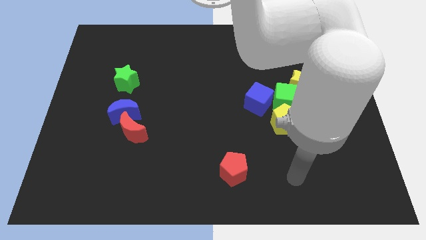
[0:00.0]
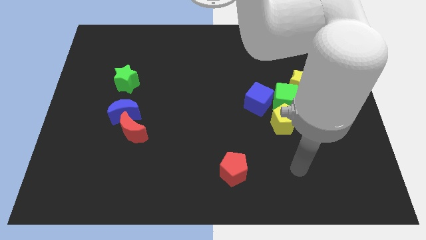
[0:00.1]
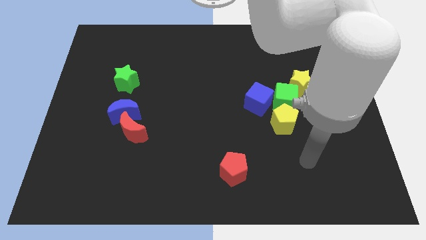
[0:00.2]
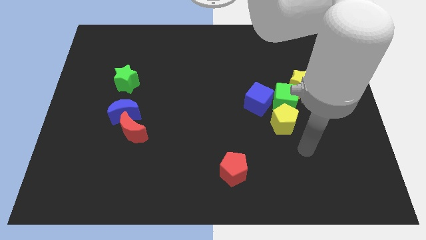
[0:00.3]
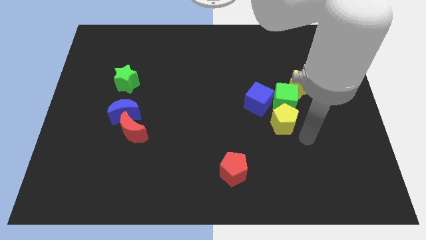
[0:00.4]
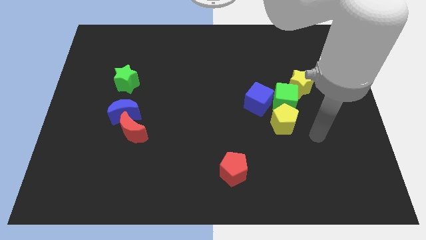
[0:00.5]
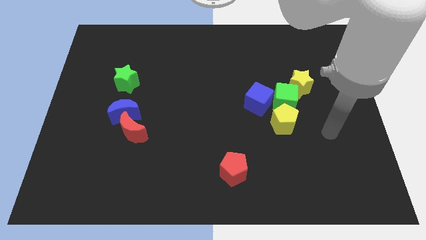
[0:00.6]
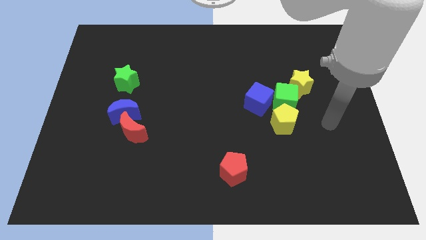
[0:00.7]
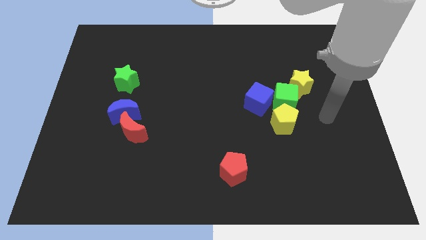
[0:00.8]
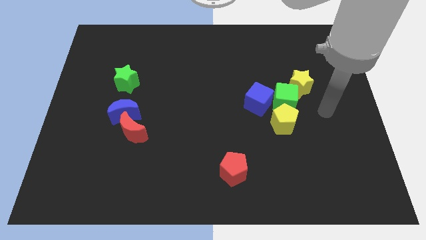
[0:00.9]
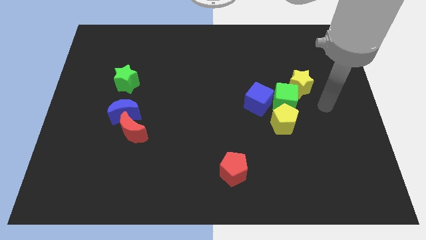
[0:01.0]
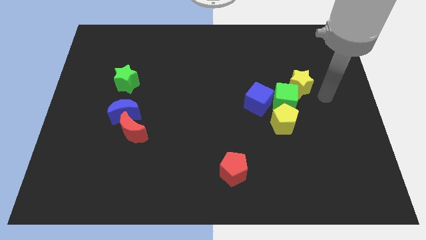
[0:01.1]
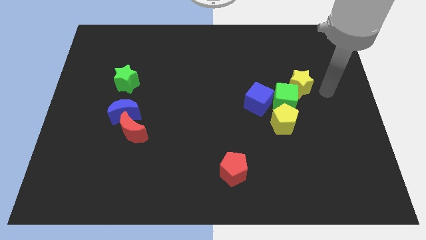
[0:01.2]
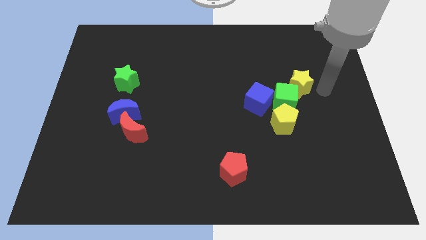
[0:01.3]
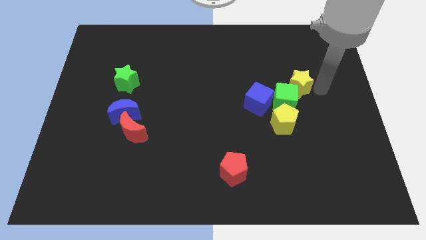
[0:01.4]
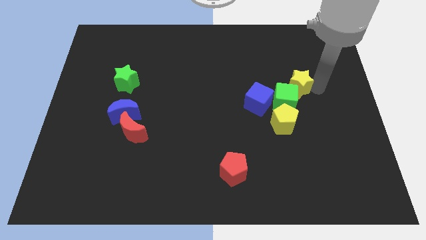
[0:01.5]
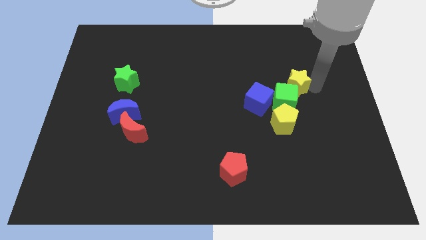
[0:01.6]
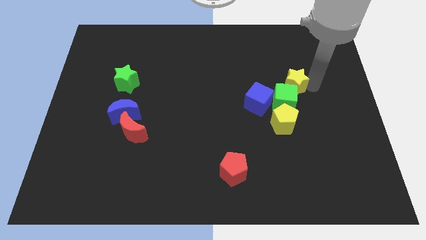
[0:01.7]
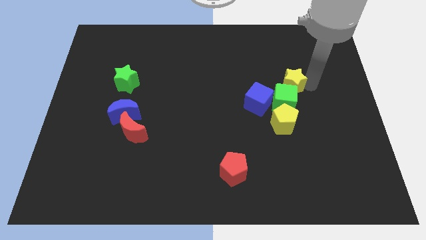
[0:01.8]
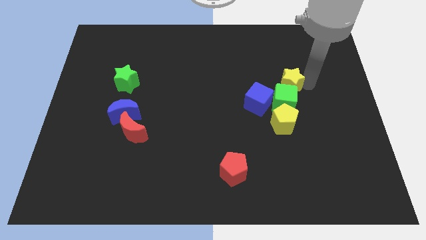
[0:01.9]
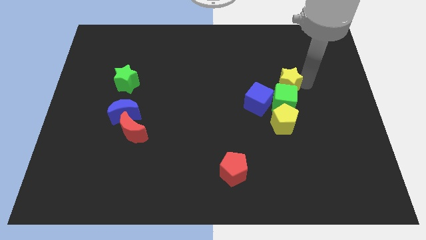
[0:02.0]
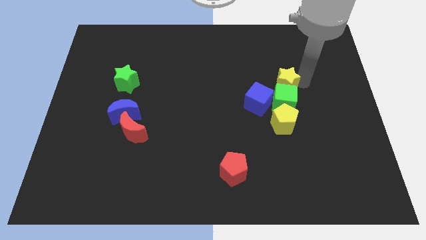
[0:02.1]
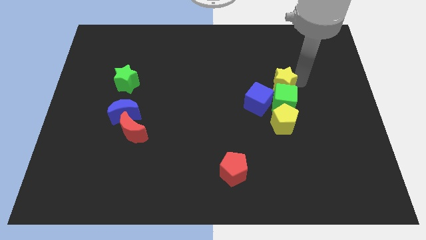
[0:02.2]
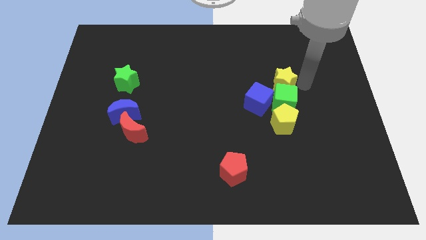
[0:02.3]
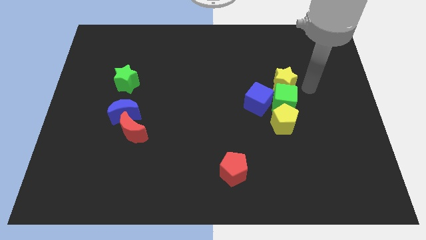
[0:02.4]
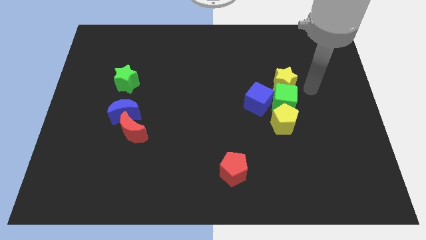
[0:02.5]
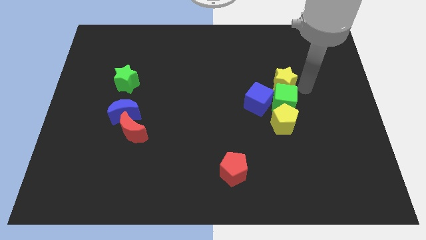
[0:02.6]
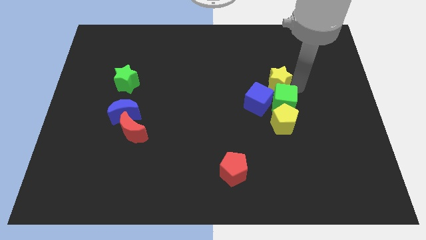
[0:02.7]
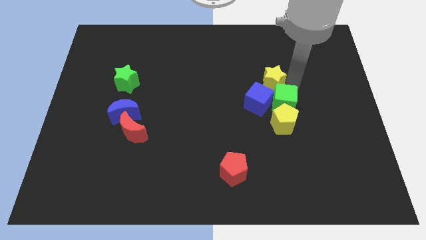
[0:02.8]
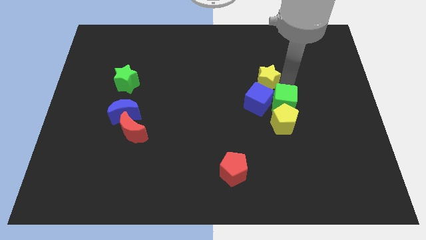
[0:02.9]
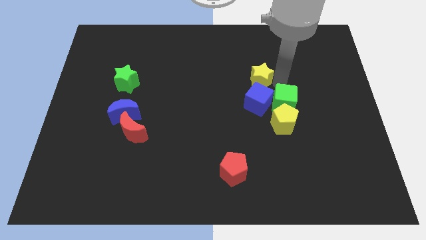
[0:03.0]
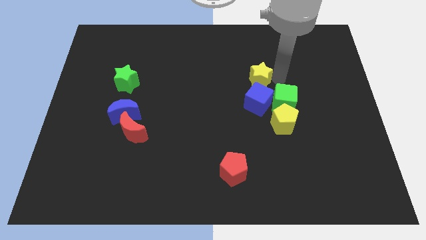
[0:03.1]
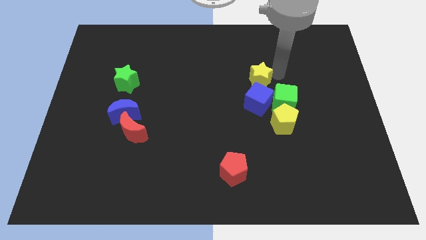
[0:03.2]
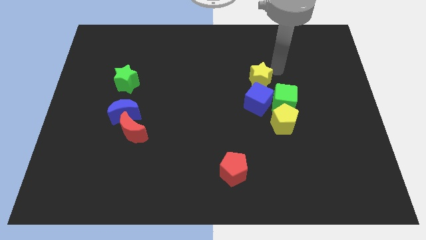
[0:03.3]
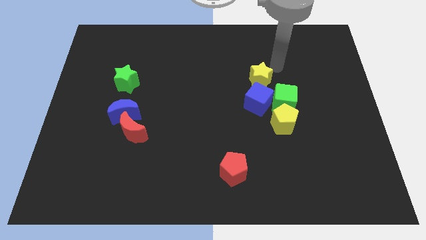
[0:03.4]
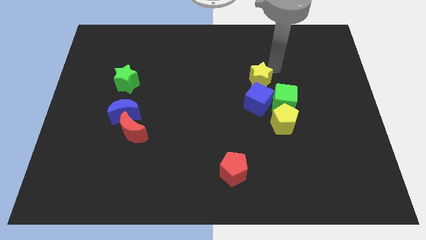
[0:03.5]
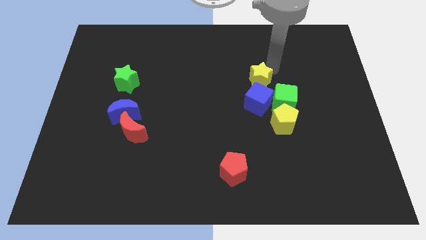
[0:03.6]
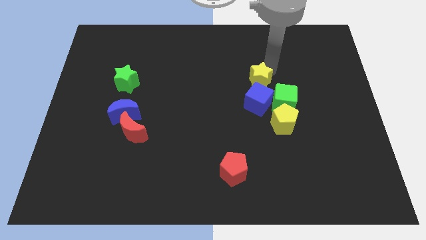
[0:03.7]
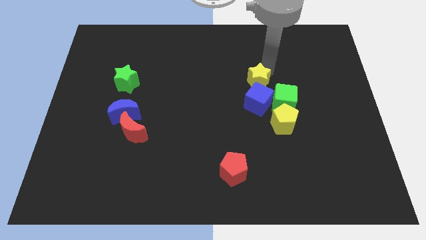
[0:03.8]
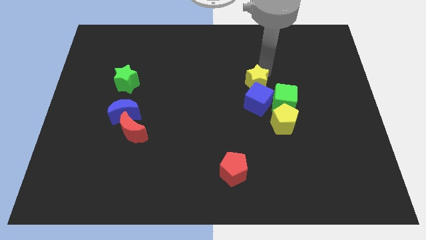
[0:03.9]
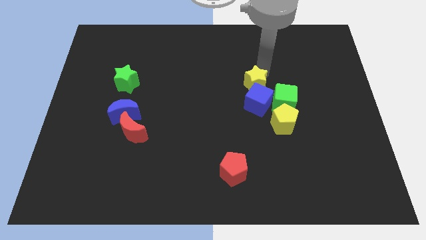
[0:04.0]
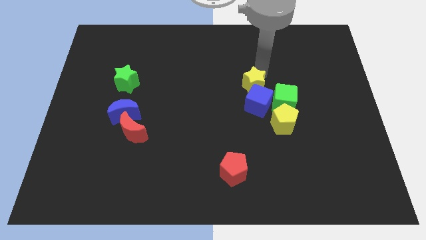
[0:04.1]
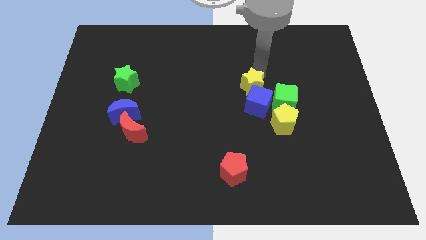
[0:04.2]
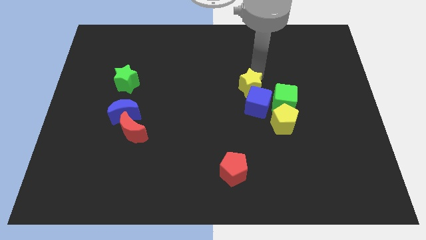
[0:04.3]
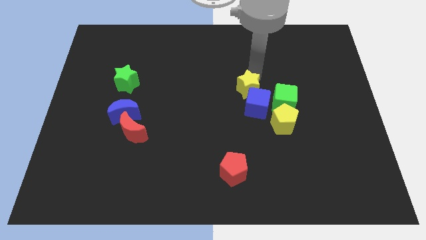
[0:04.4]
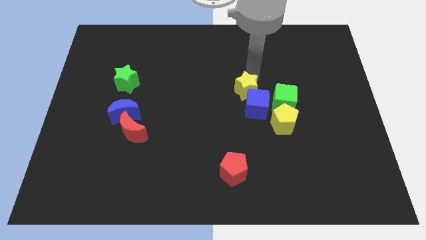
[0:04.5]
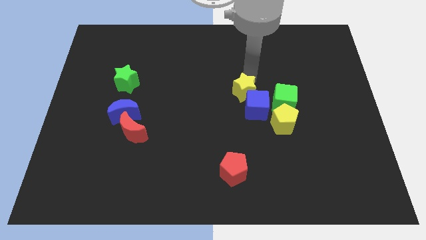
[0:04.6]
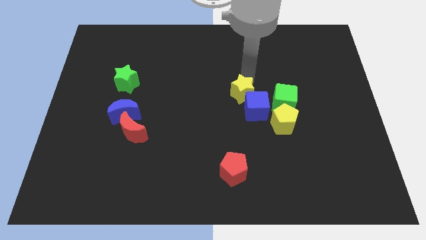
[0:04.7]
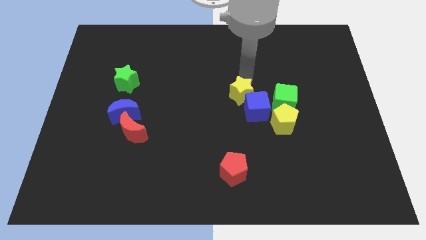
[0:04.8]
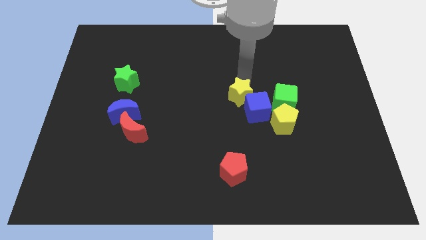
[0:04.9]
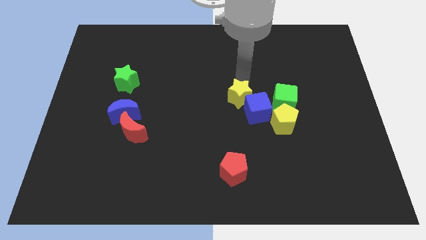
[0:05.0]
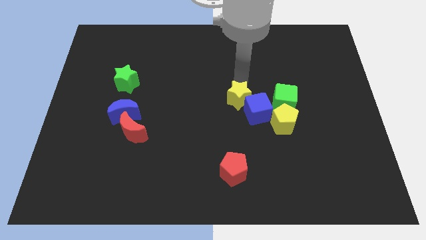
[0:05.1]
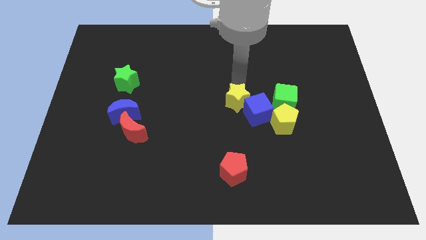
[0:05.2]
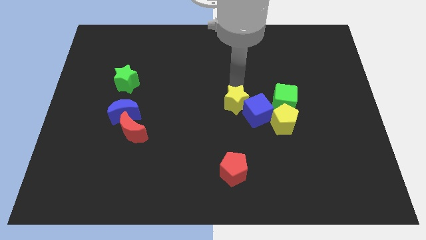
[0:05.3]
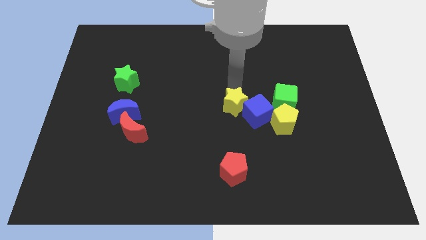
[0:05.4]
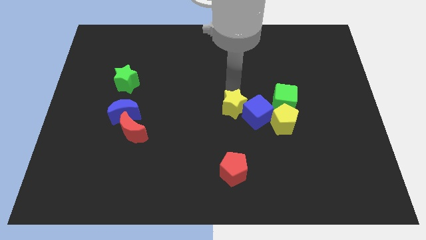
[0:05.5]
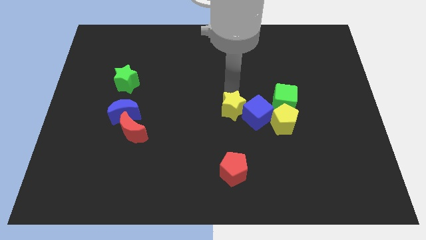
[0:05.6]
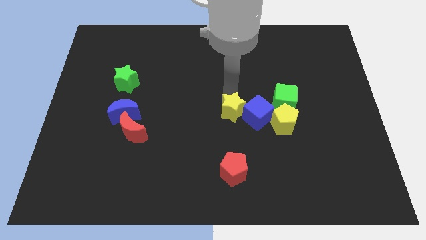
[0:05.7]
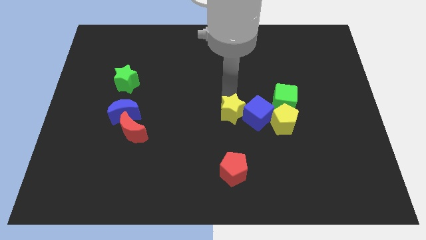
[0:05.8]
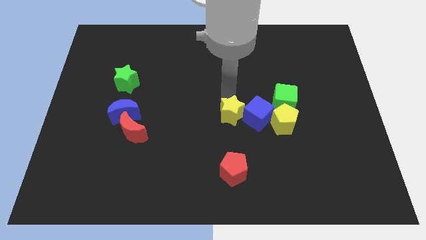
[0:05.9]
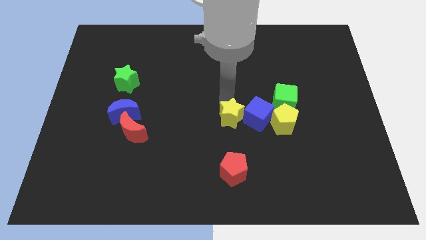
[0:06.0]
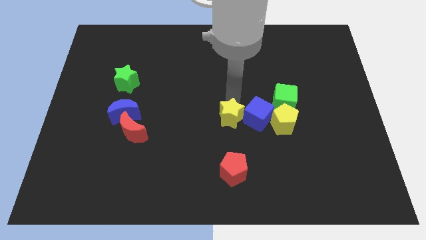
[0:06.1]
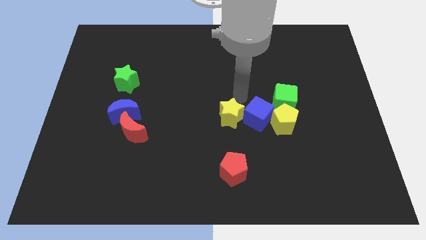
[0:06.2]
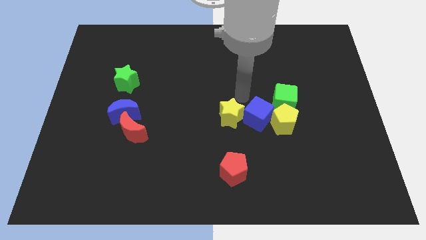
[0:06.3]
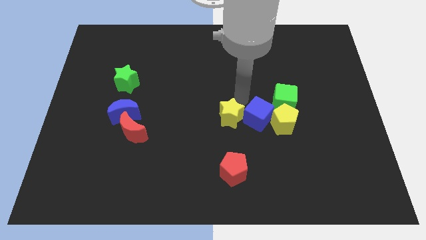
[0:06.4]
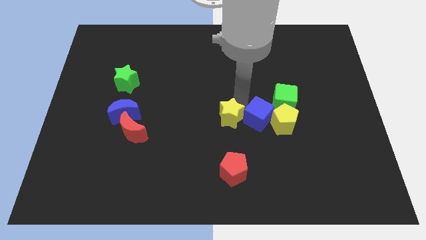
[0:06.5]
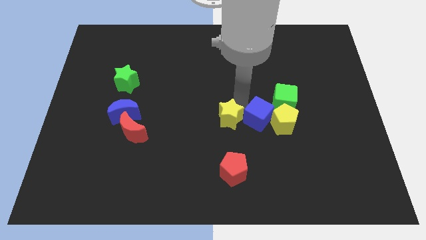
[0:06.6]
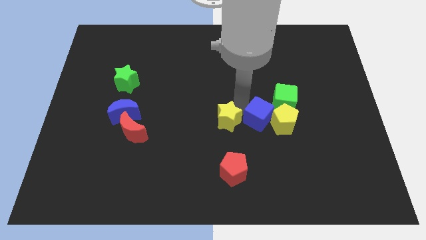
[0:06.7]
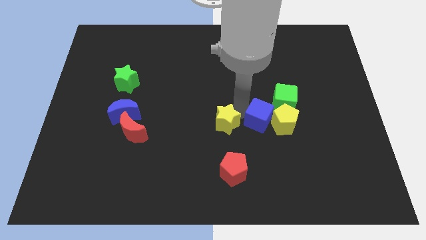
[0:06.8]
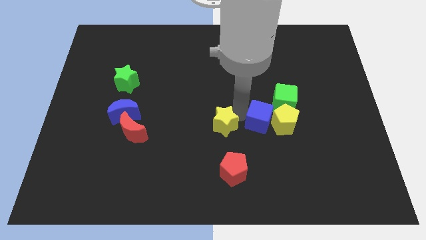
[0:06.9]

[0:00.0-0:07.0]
push the yellow star downwards and then left

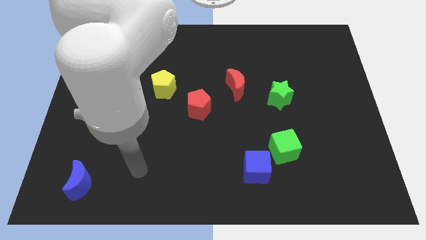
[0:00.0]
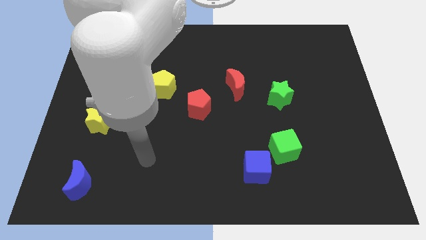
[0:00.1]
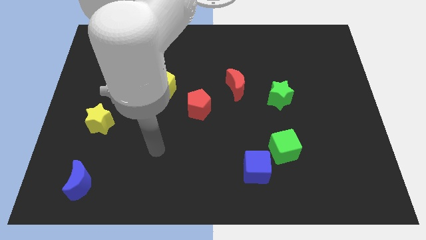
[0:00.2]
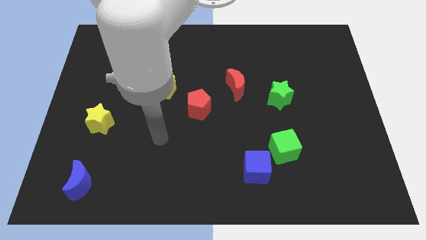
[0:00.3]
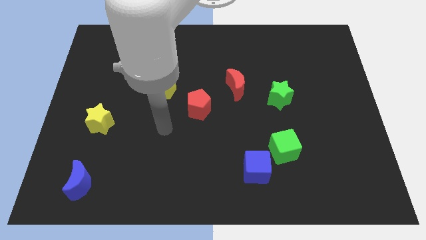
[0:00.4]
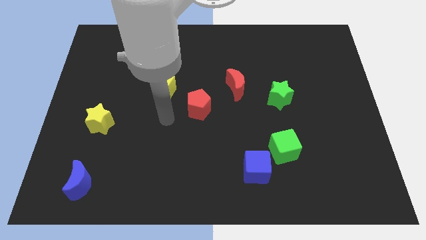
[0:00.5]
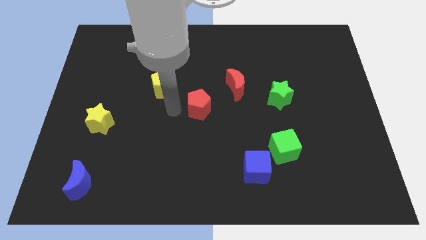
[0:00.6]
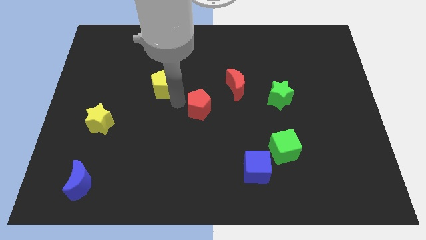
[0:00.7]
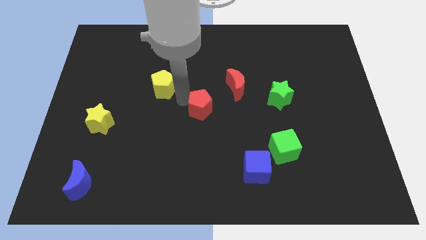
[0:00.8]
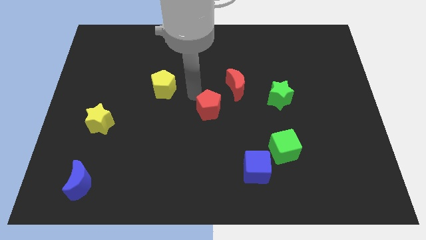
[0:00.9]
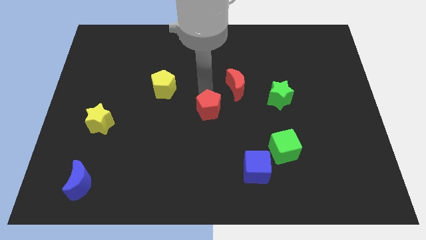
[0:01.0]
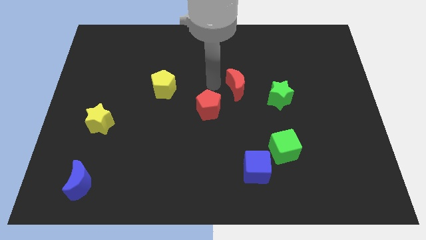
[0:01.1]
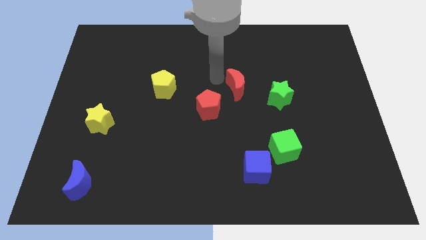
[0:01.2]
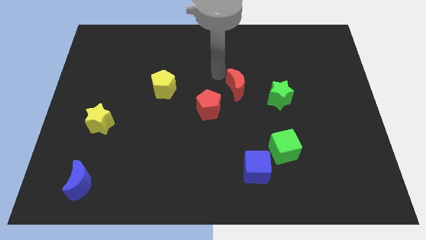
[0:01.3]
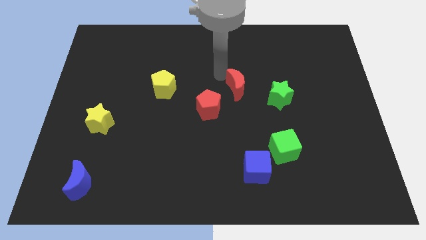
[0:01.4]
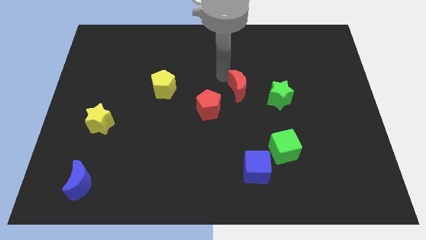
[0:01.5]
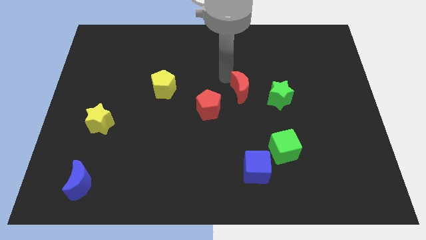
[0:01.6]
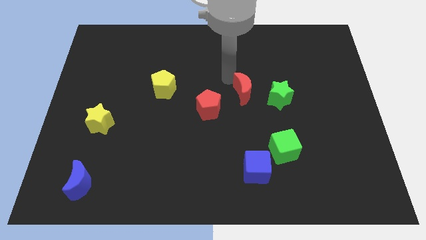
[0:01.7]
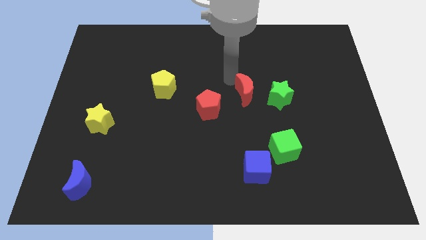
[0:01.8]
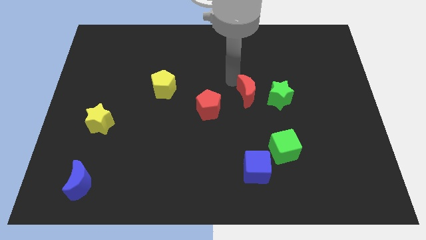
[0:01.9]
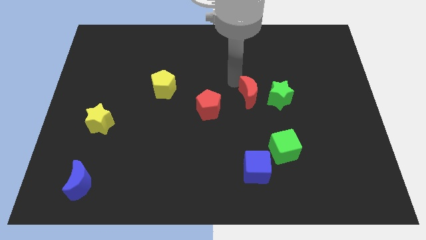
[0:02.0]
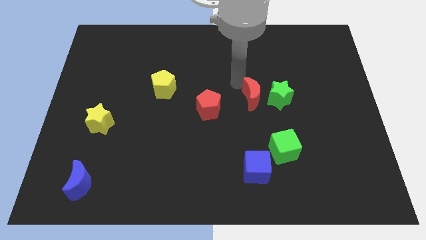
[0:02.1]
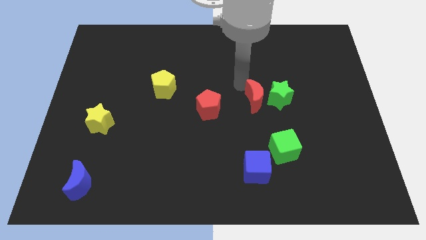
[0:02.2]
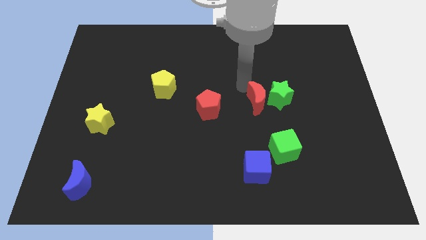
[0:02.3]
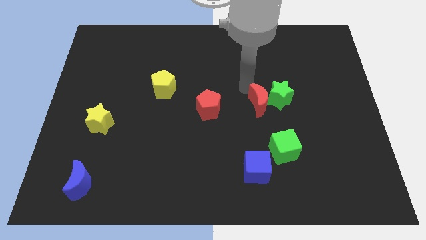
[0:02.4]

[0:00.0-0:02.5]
move the red moon diagonally down and right a little bit
